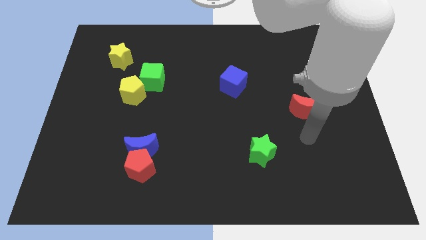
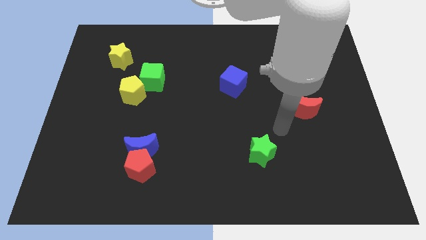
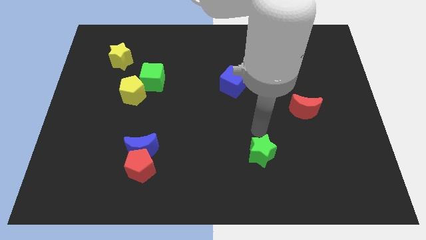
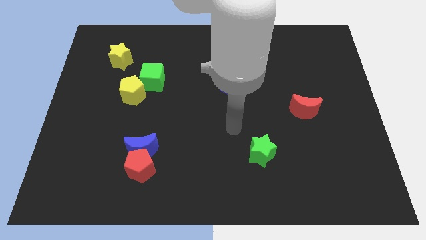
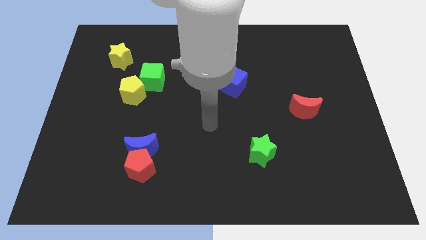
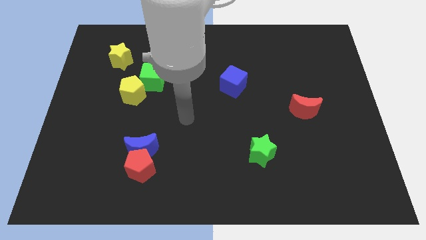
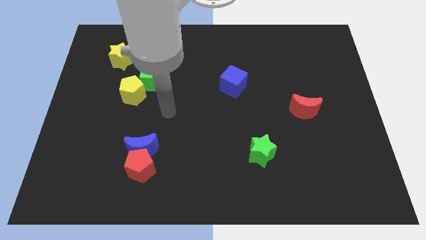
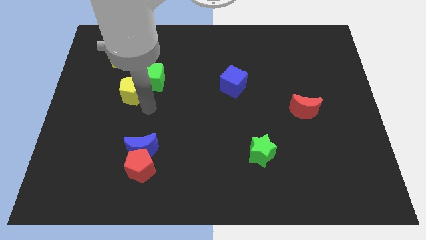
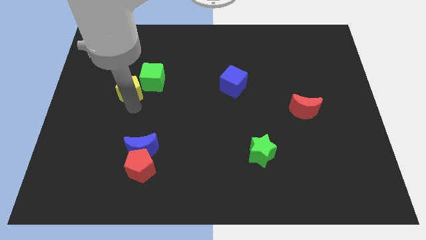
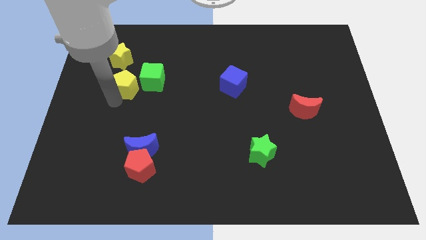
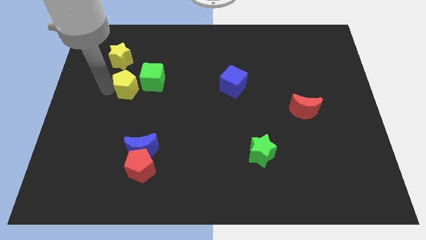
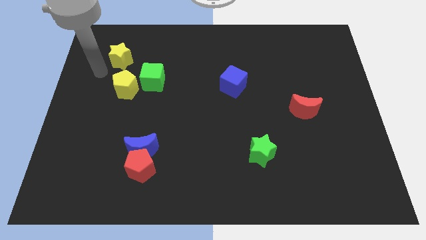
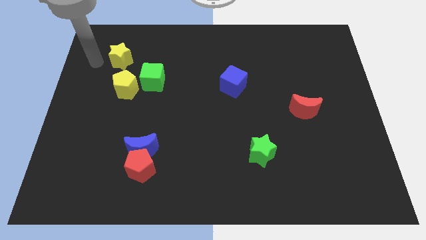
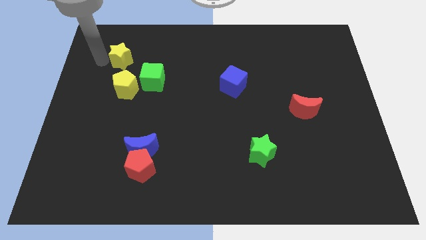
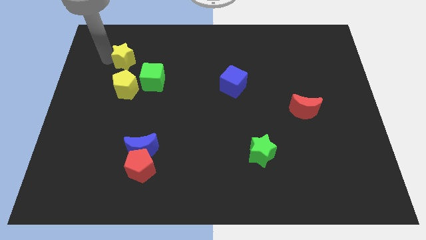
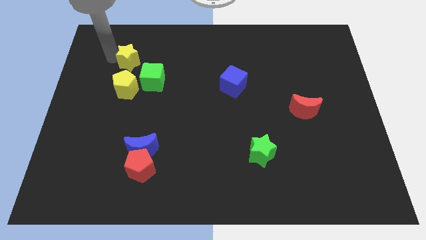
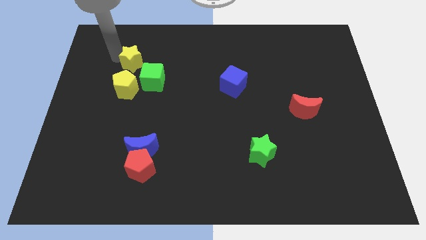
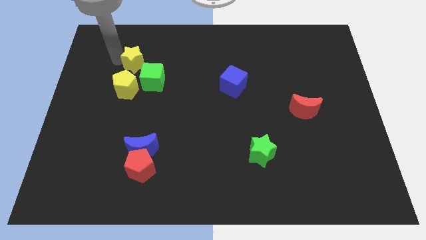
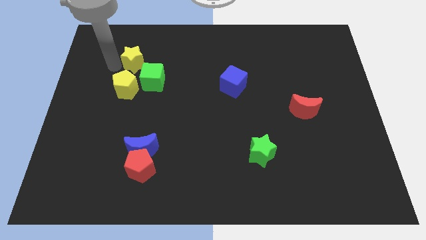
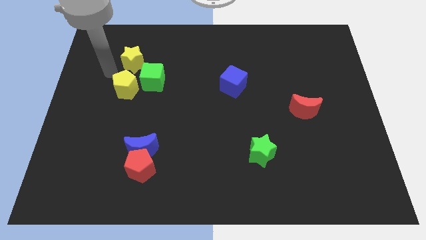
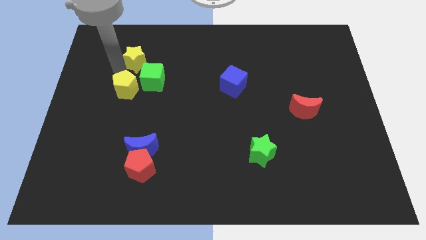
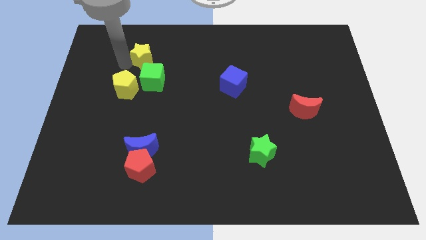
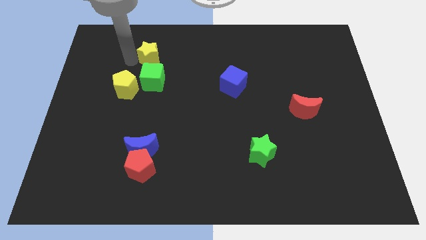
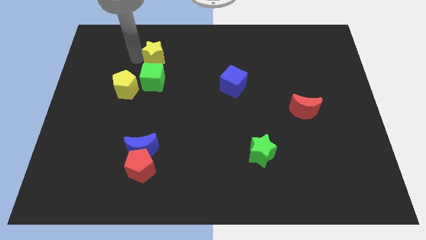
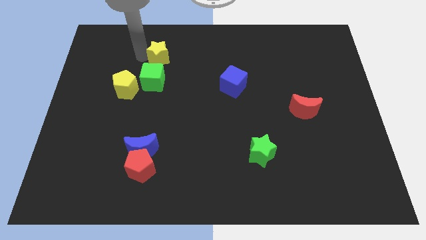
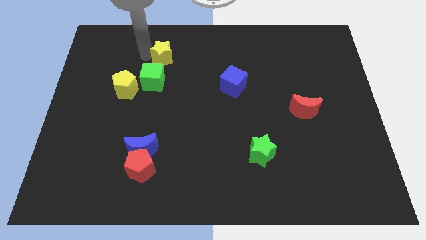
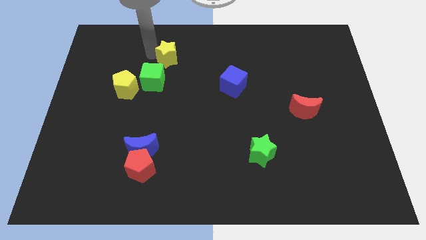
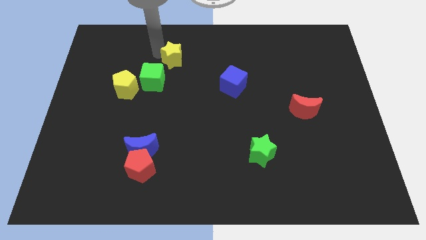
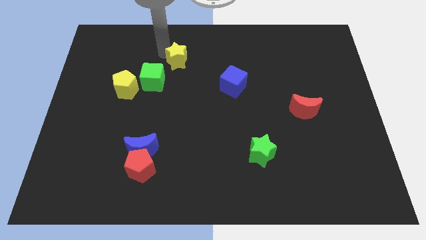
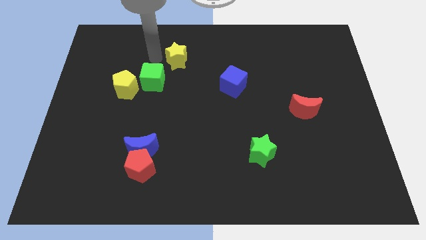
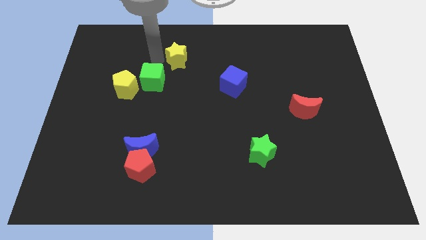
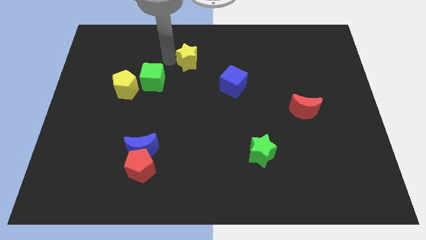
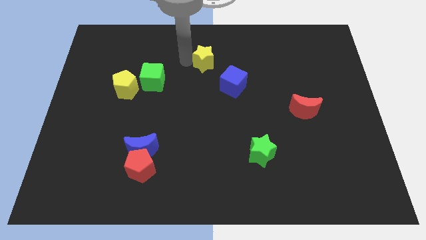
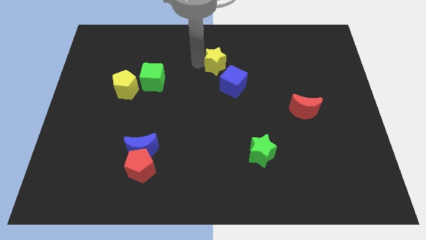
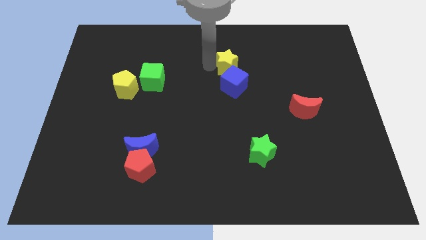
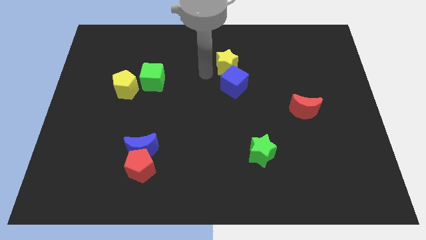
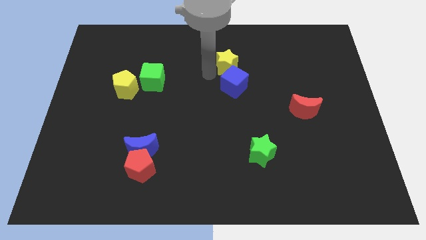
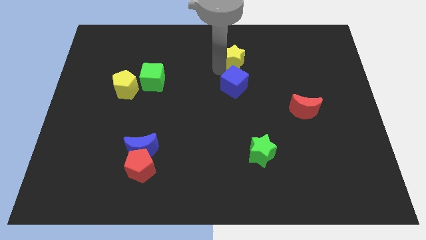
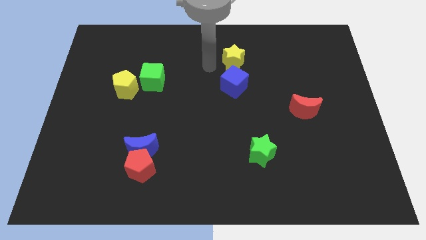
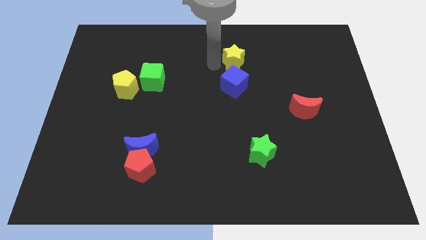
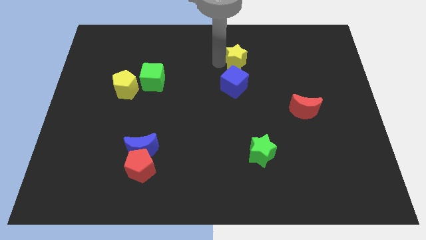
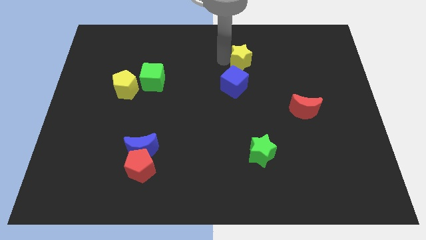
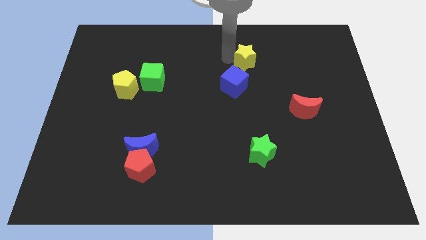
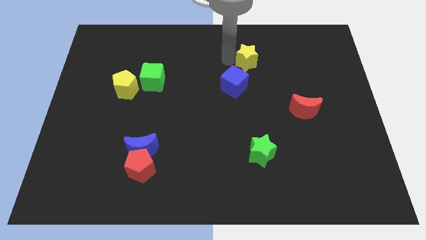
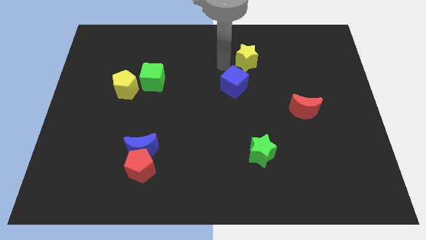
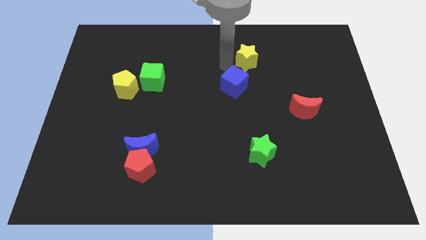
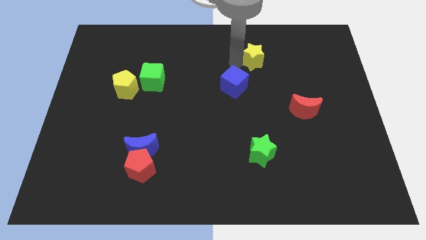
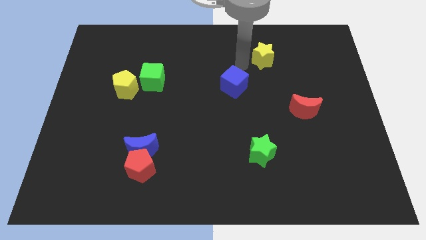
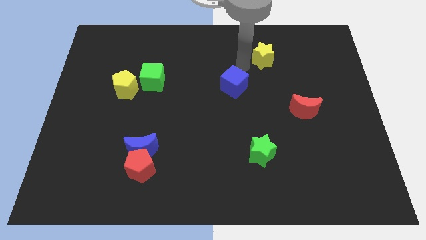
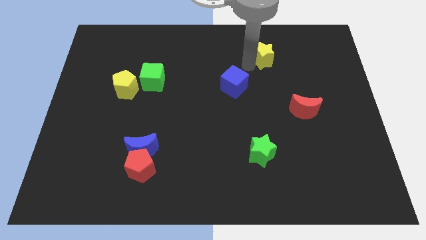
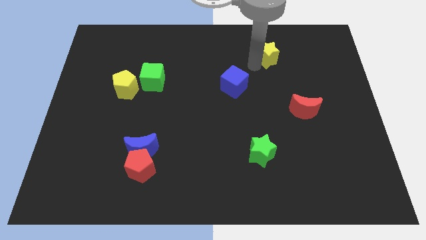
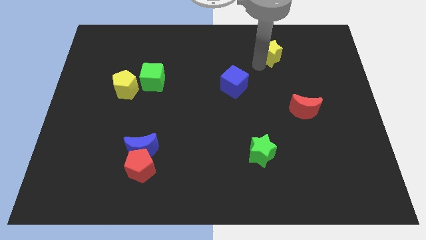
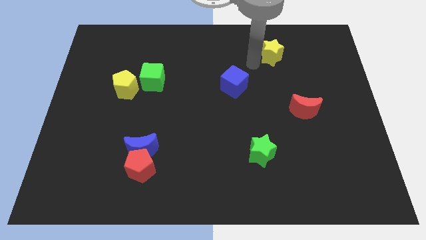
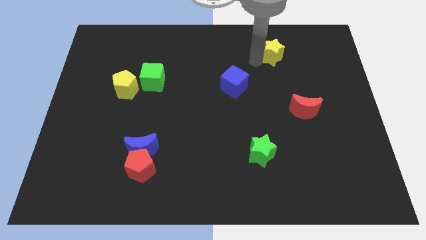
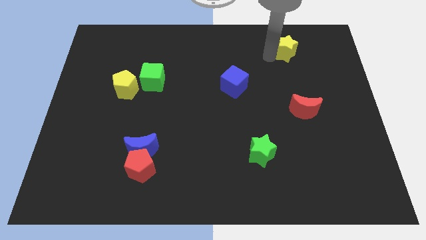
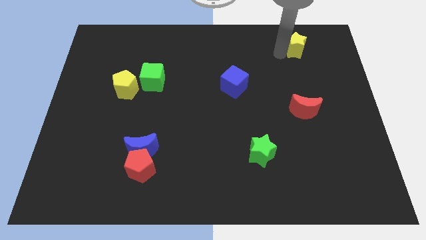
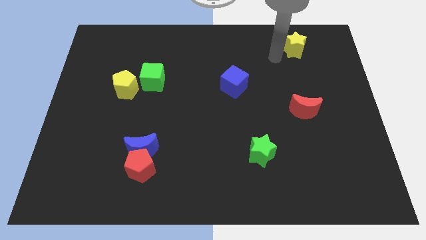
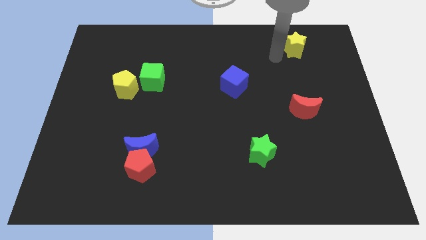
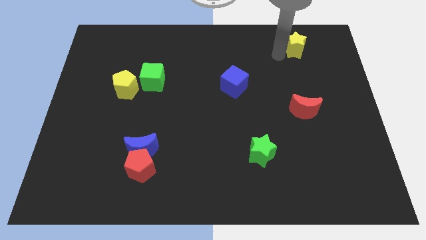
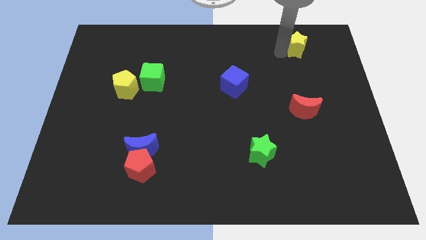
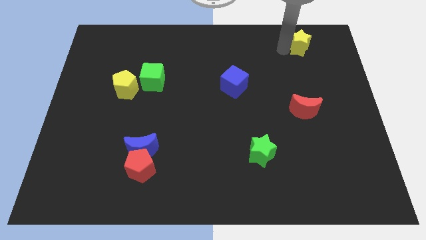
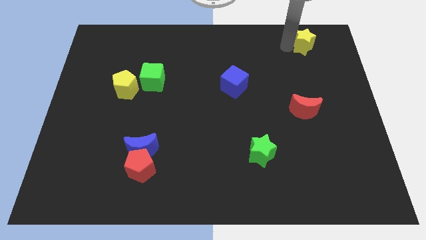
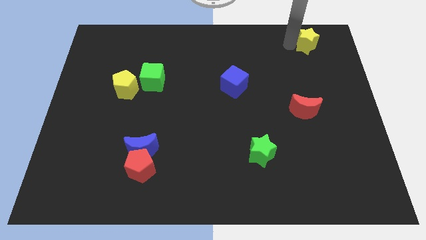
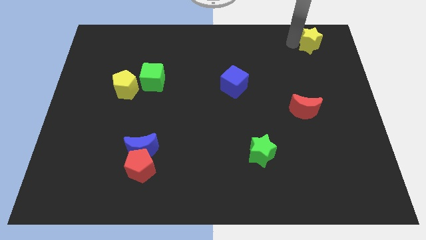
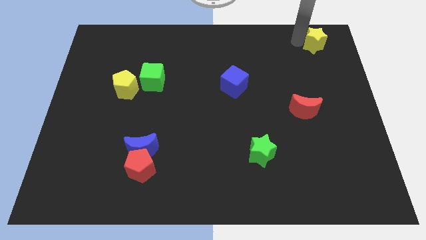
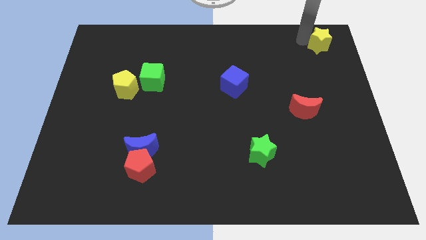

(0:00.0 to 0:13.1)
move the yellow star to the top right of the board
